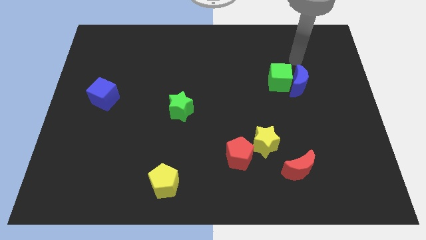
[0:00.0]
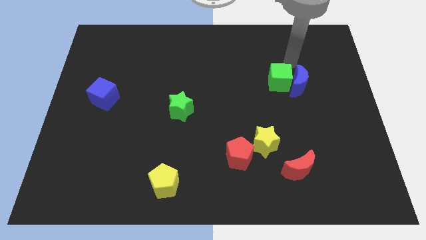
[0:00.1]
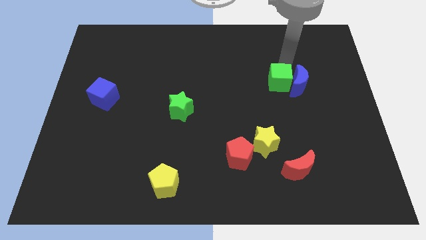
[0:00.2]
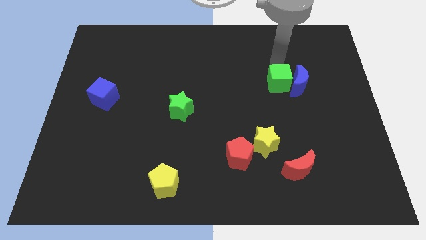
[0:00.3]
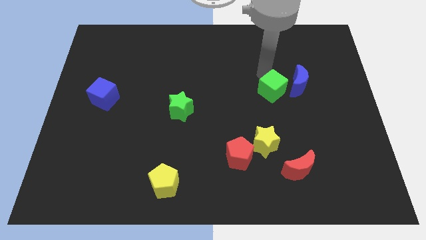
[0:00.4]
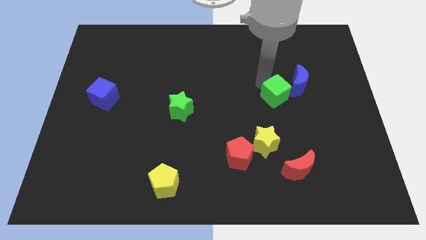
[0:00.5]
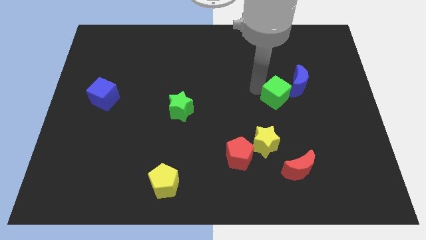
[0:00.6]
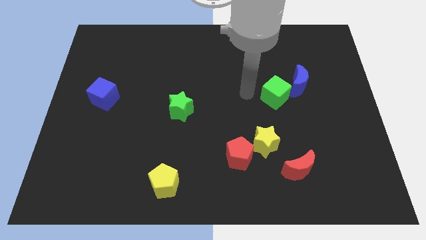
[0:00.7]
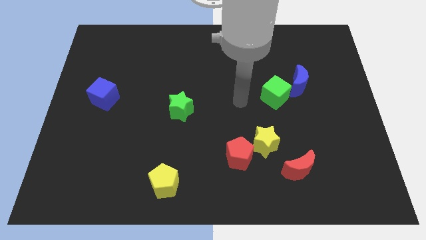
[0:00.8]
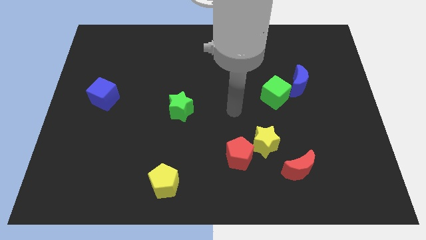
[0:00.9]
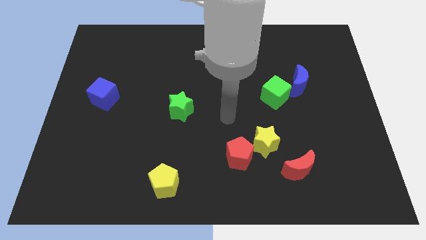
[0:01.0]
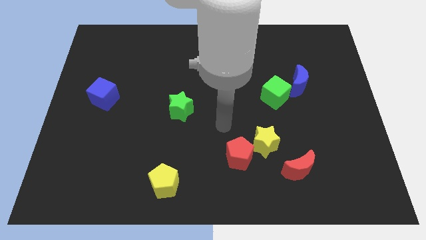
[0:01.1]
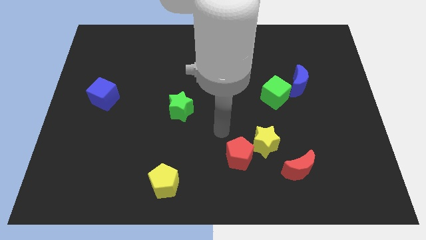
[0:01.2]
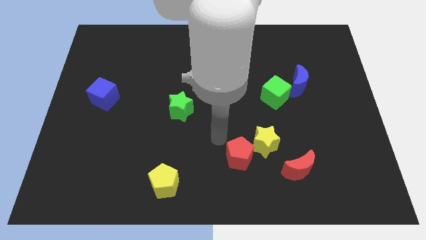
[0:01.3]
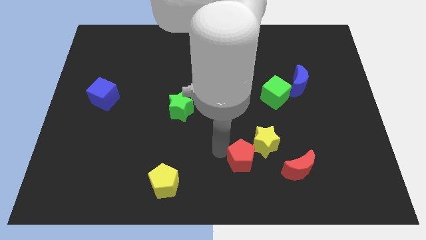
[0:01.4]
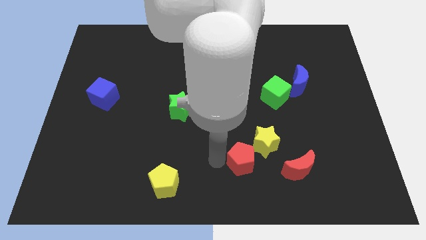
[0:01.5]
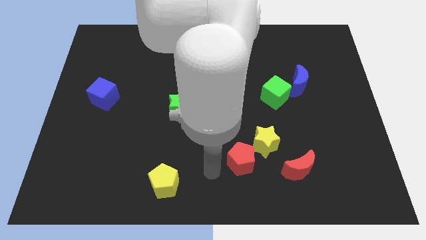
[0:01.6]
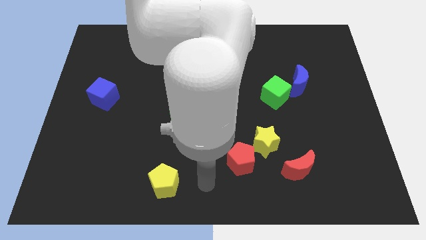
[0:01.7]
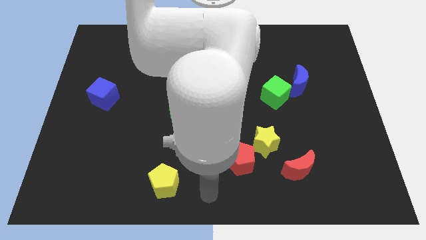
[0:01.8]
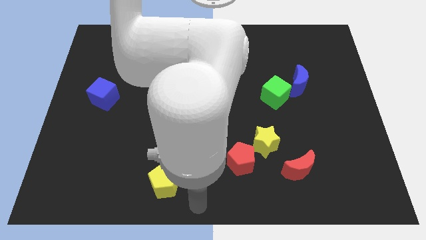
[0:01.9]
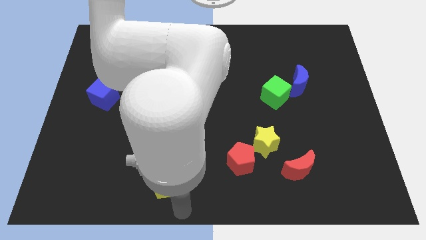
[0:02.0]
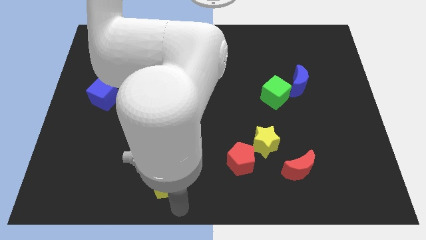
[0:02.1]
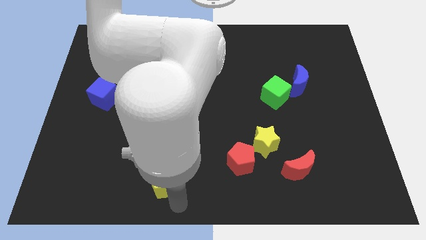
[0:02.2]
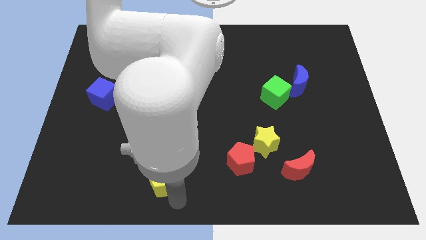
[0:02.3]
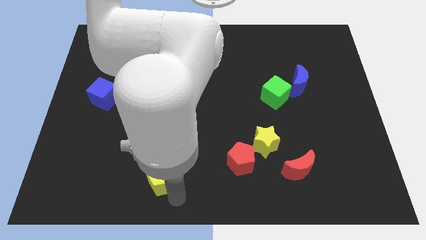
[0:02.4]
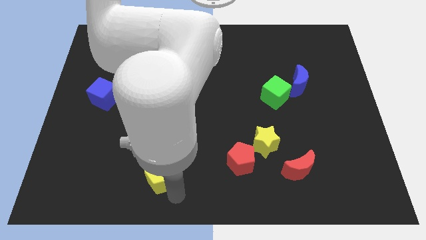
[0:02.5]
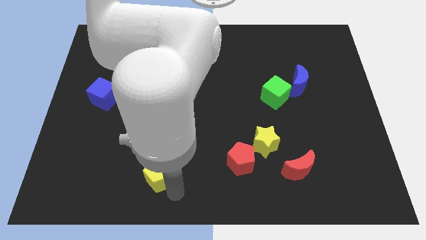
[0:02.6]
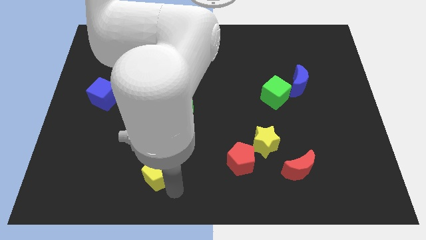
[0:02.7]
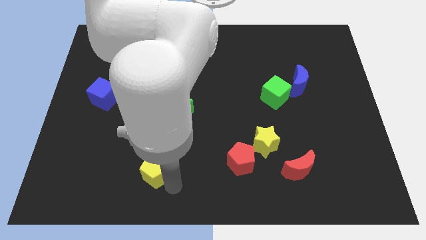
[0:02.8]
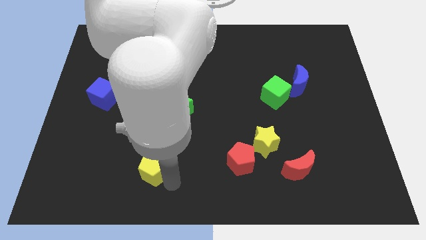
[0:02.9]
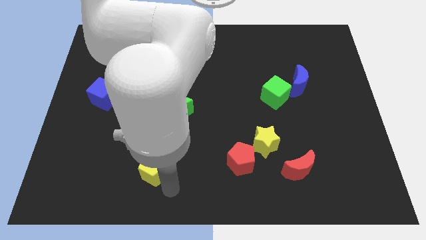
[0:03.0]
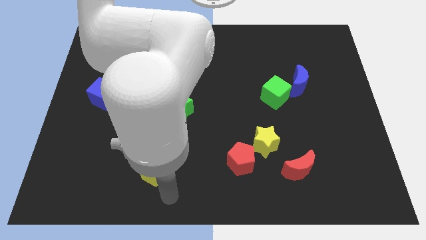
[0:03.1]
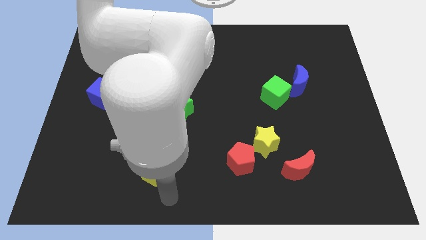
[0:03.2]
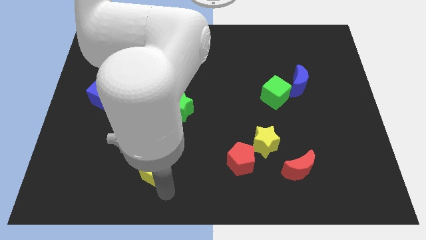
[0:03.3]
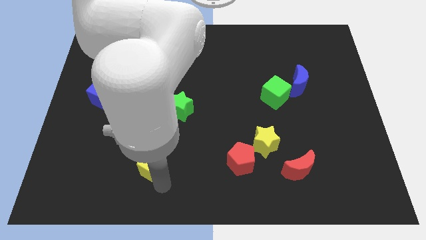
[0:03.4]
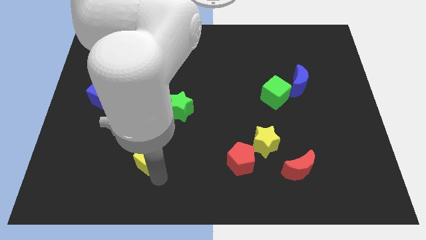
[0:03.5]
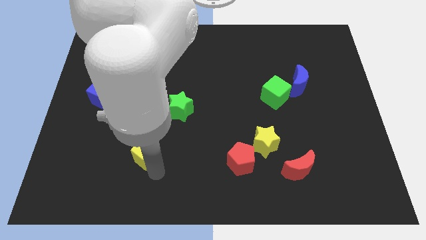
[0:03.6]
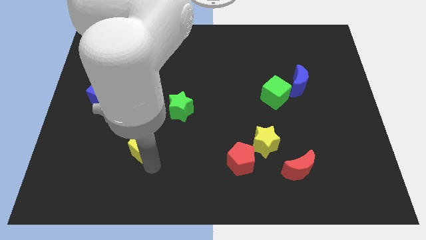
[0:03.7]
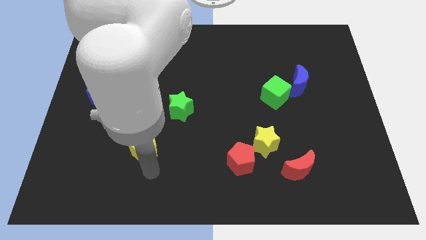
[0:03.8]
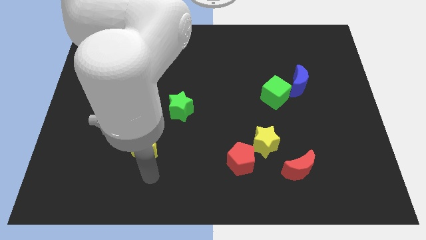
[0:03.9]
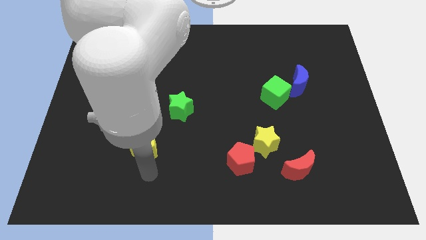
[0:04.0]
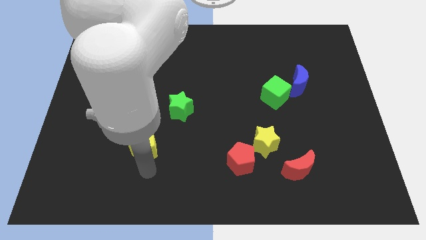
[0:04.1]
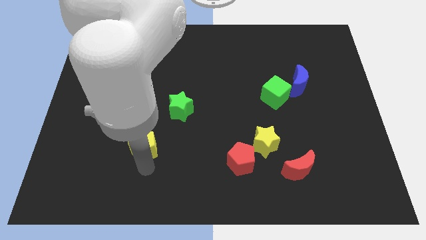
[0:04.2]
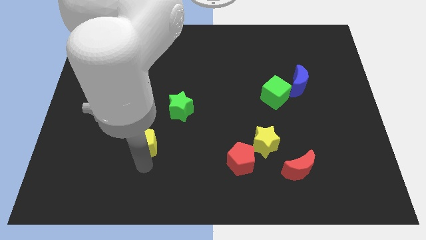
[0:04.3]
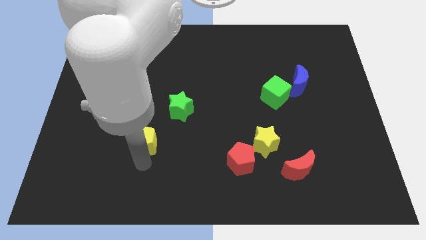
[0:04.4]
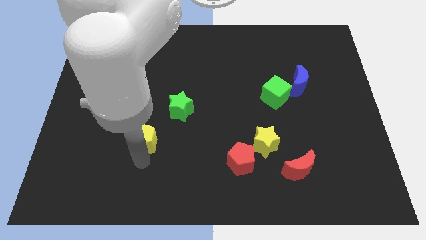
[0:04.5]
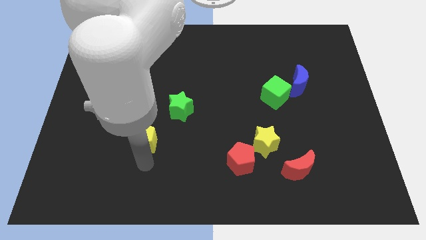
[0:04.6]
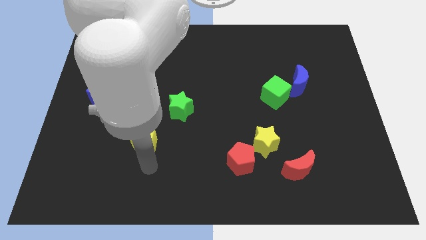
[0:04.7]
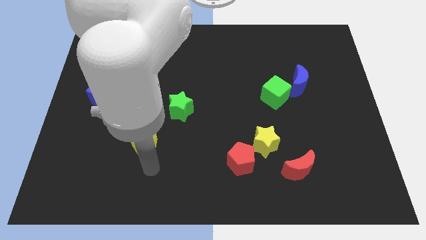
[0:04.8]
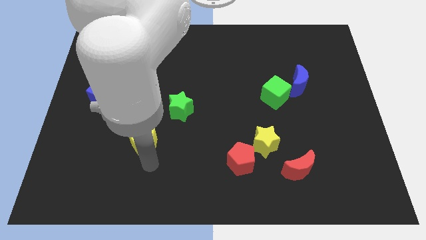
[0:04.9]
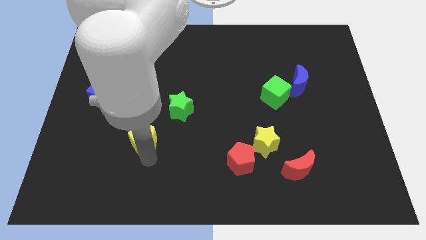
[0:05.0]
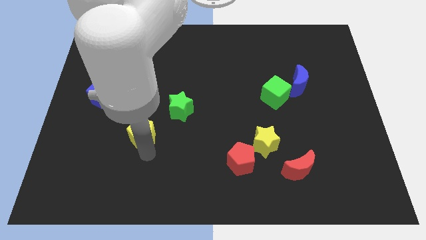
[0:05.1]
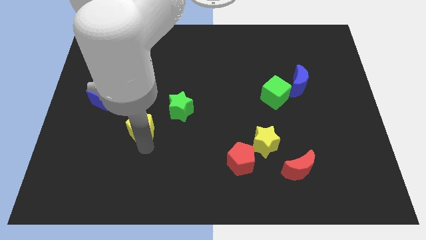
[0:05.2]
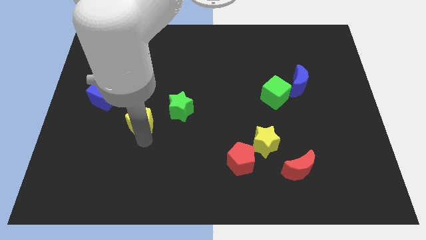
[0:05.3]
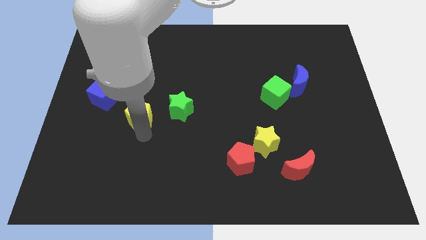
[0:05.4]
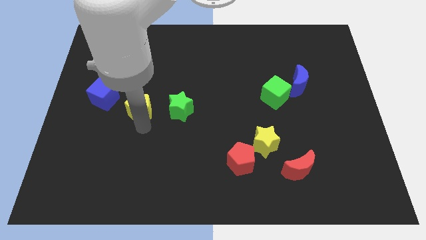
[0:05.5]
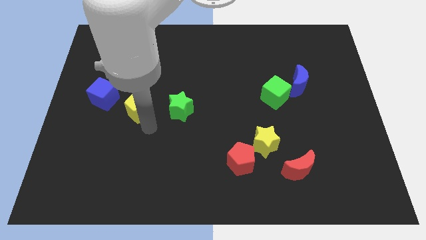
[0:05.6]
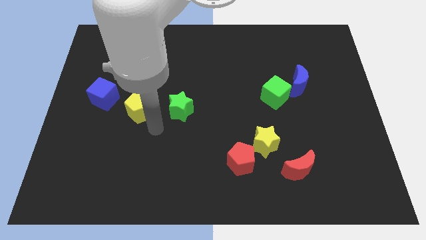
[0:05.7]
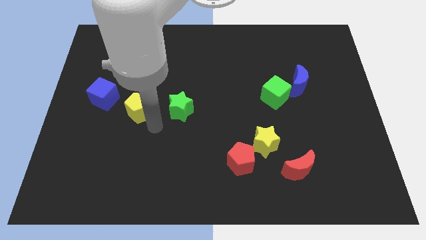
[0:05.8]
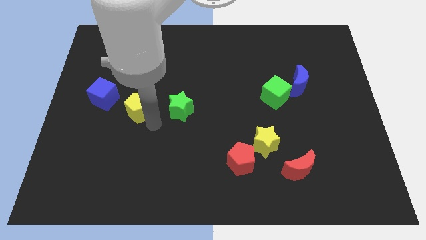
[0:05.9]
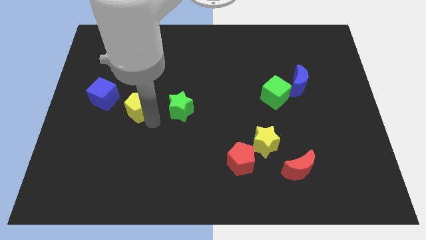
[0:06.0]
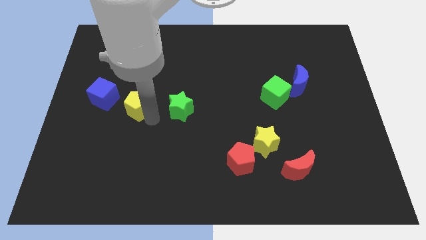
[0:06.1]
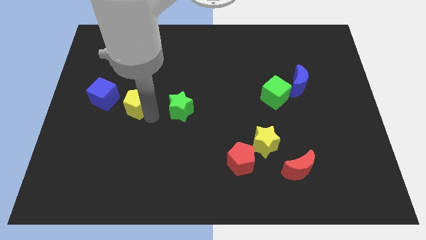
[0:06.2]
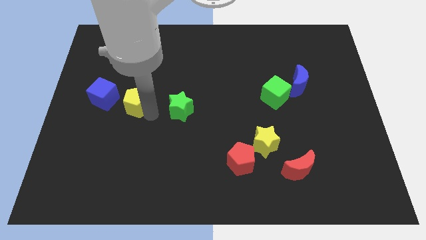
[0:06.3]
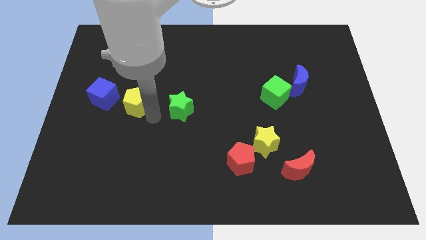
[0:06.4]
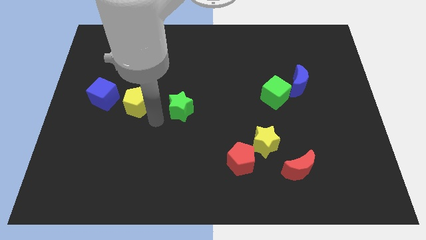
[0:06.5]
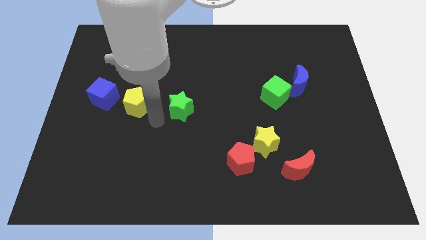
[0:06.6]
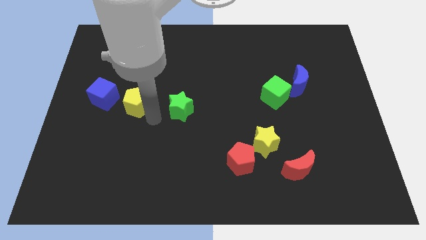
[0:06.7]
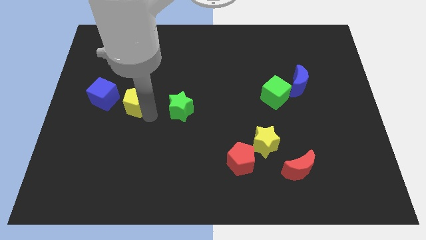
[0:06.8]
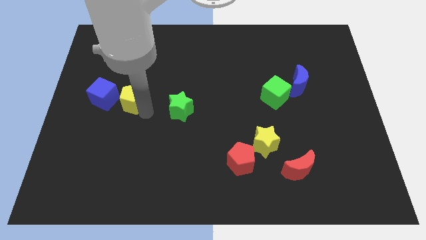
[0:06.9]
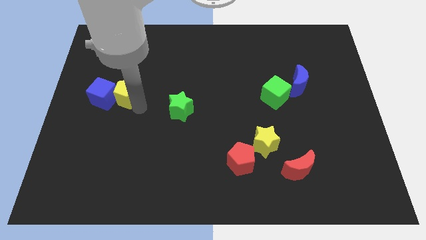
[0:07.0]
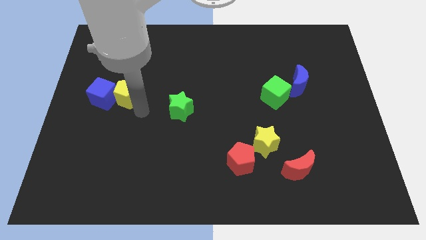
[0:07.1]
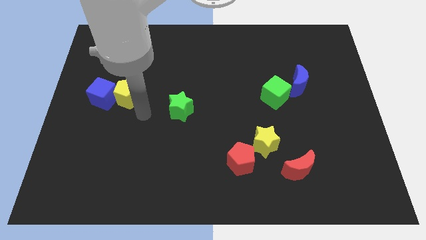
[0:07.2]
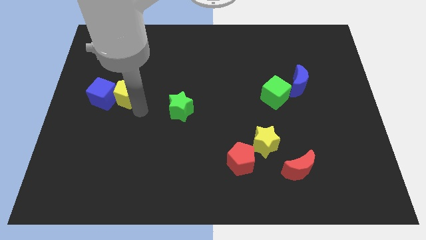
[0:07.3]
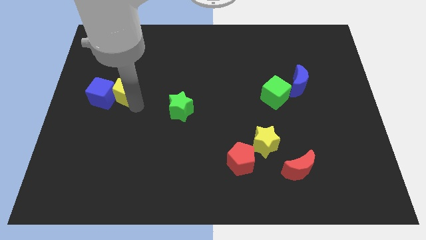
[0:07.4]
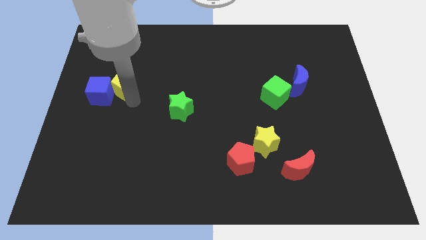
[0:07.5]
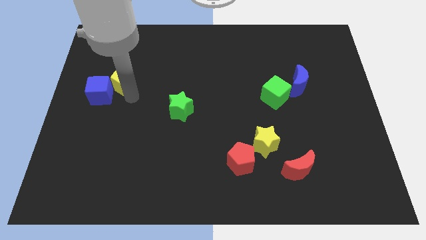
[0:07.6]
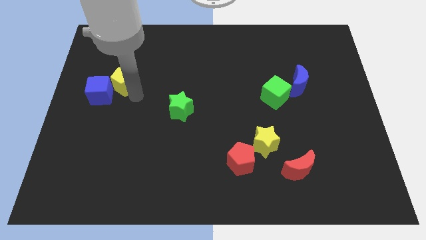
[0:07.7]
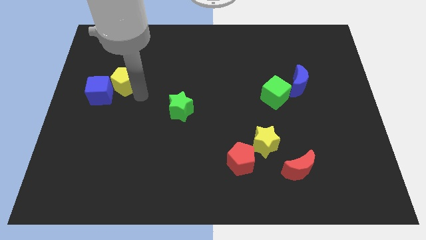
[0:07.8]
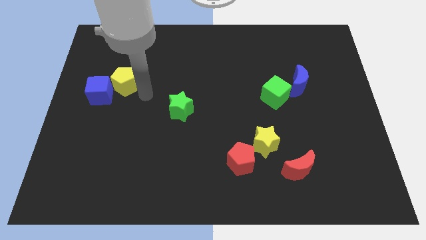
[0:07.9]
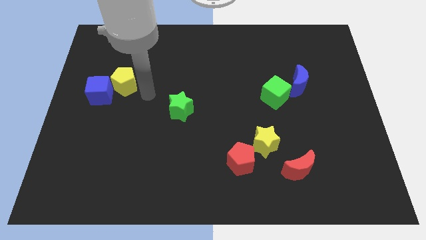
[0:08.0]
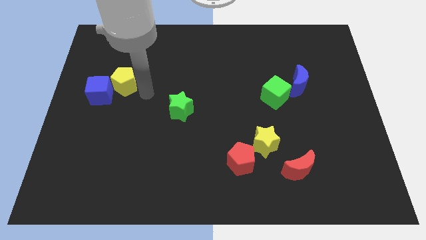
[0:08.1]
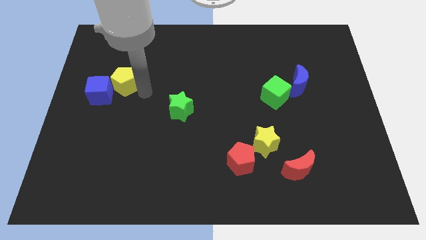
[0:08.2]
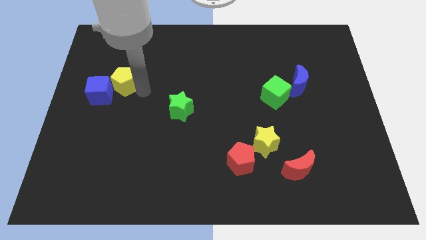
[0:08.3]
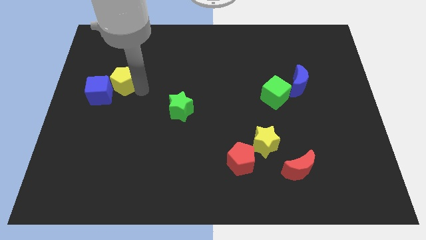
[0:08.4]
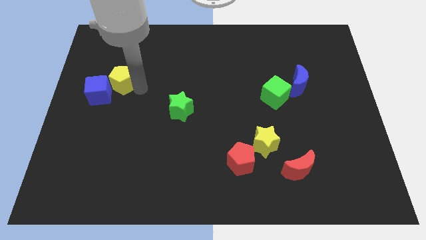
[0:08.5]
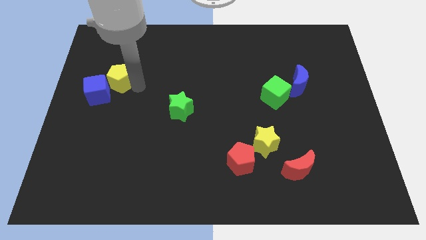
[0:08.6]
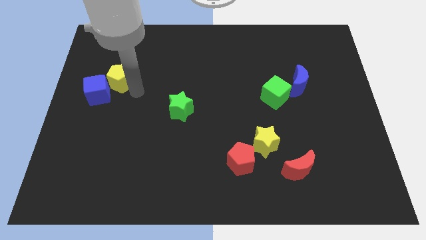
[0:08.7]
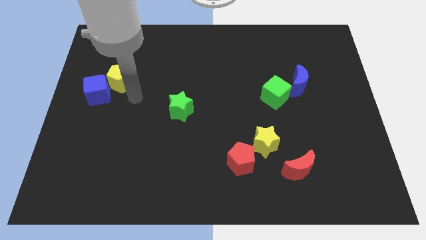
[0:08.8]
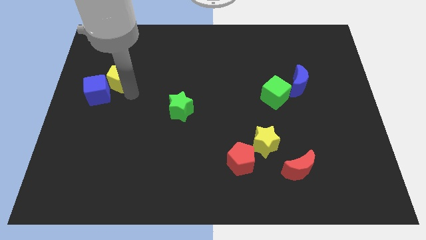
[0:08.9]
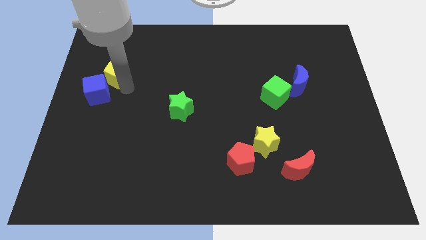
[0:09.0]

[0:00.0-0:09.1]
put the yellow pentagon to the top of the blue cube
